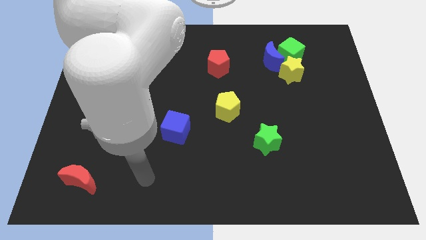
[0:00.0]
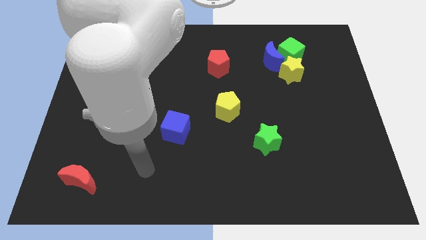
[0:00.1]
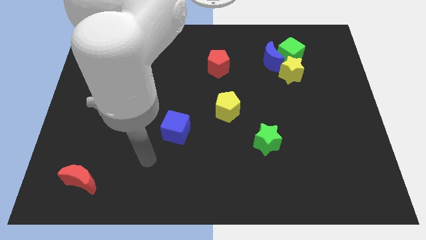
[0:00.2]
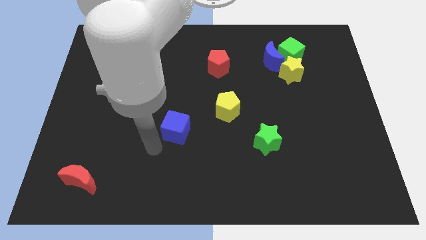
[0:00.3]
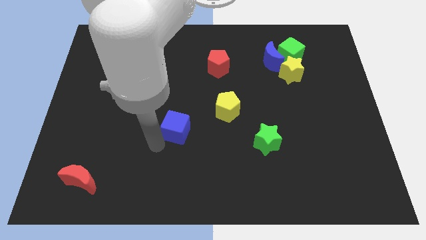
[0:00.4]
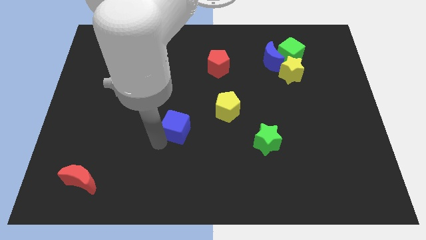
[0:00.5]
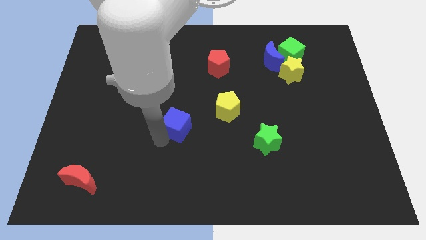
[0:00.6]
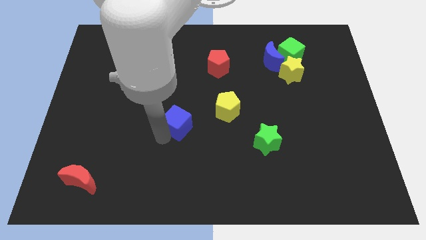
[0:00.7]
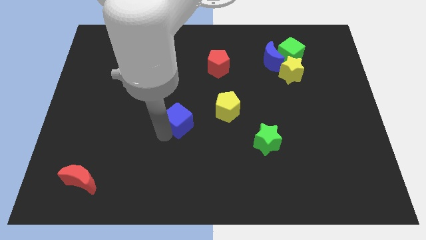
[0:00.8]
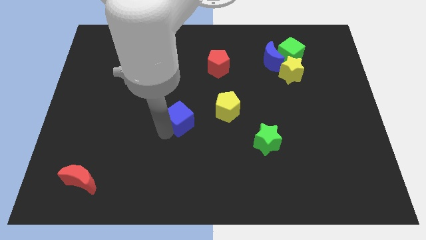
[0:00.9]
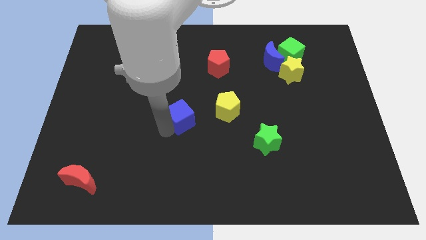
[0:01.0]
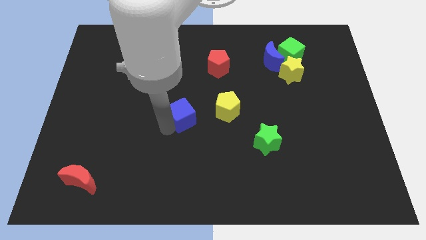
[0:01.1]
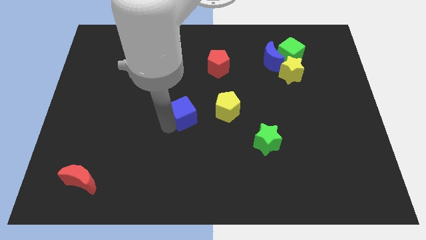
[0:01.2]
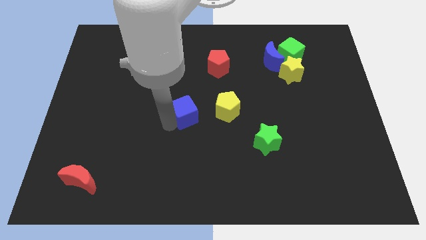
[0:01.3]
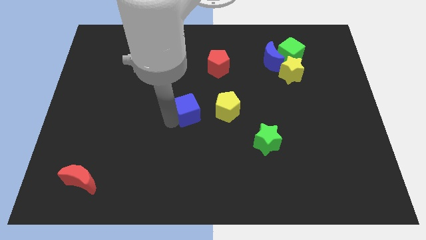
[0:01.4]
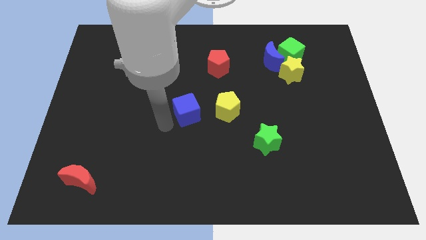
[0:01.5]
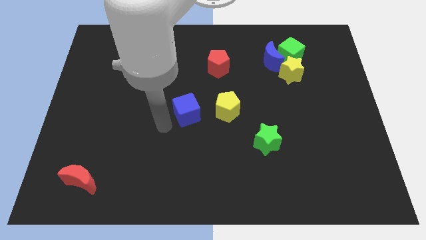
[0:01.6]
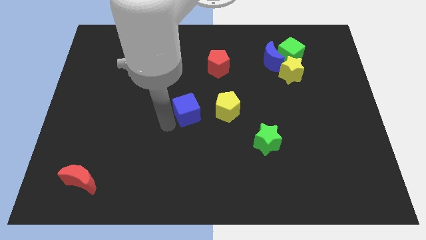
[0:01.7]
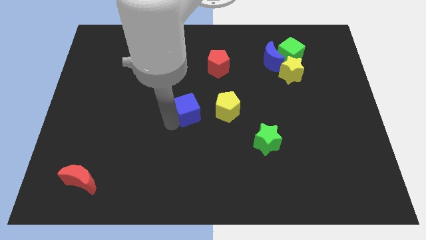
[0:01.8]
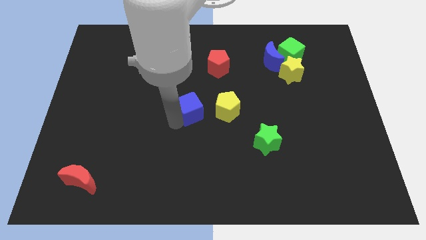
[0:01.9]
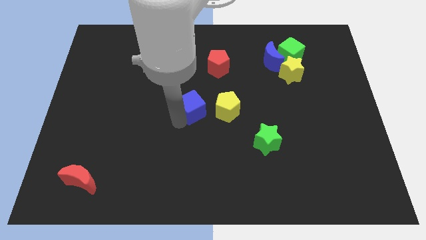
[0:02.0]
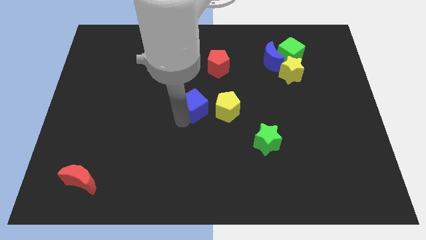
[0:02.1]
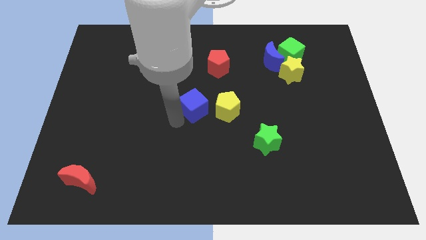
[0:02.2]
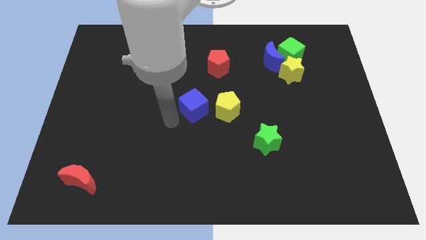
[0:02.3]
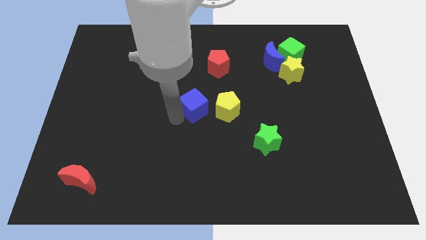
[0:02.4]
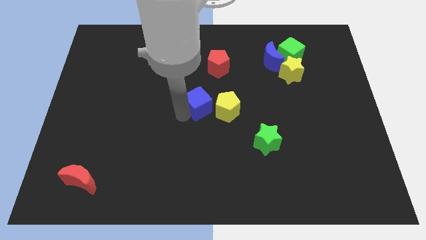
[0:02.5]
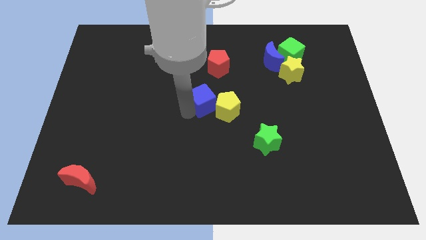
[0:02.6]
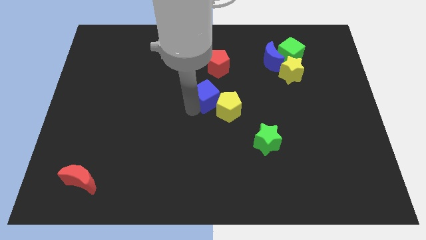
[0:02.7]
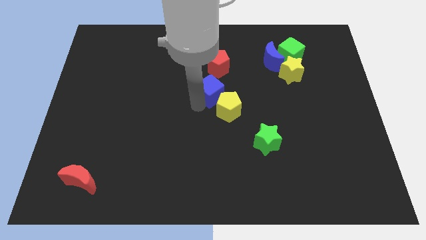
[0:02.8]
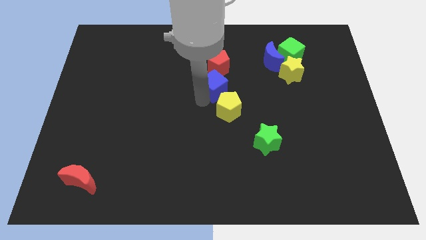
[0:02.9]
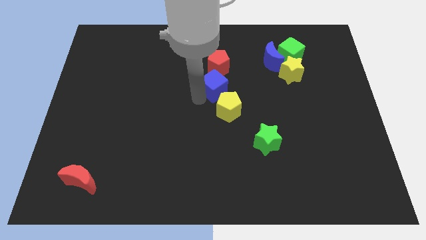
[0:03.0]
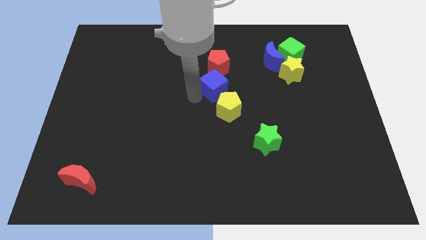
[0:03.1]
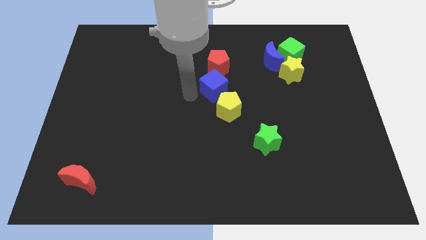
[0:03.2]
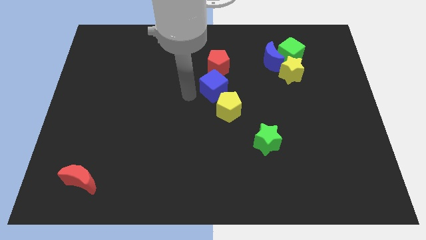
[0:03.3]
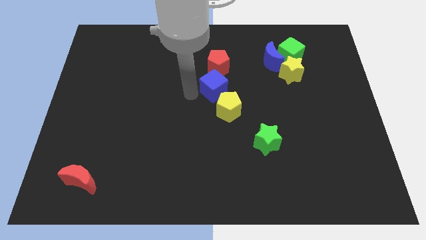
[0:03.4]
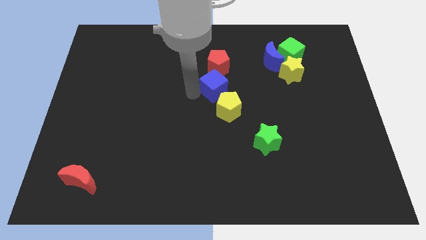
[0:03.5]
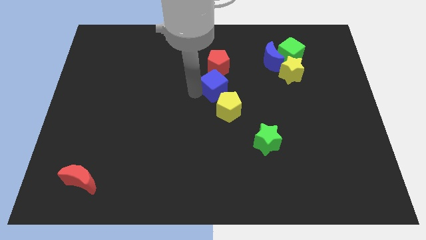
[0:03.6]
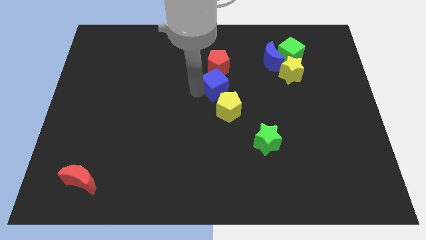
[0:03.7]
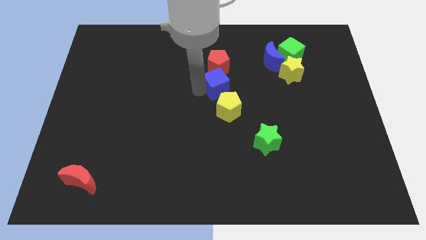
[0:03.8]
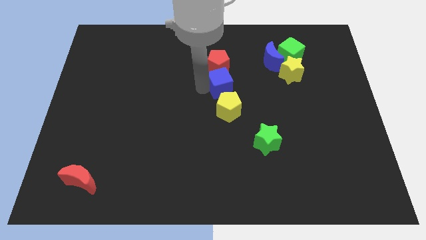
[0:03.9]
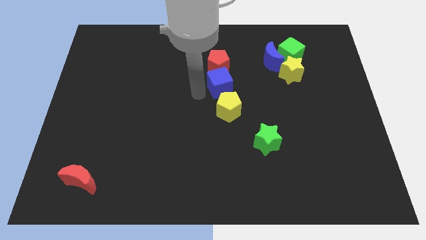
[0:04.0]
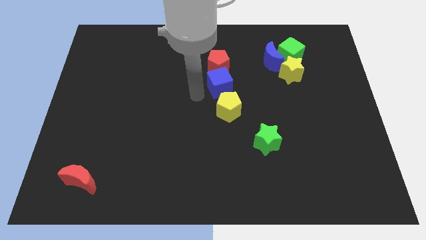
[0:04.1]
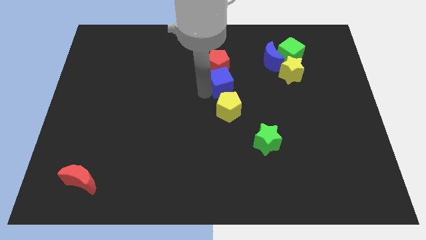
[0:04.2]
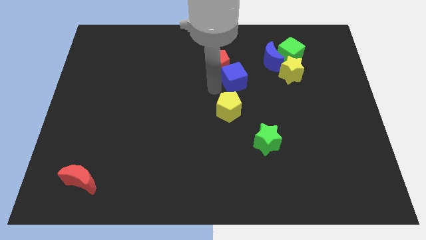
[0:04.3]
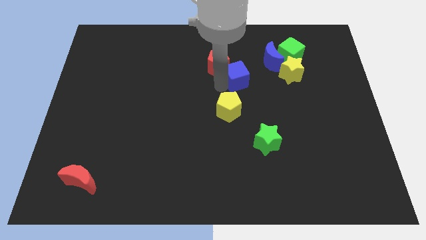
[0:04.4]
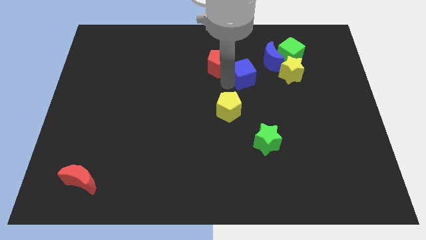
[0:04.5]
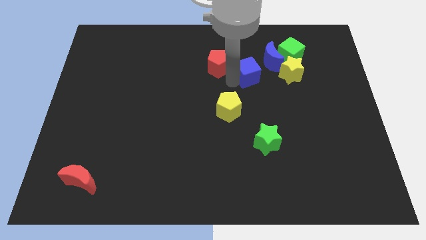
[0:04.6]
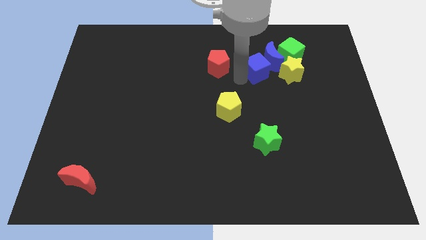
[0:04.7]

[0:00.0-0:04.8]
move the blue cube next to the blue moon

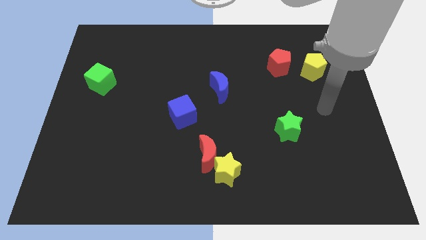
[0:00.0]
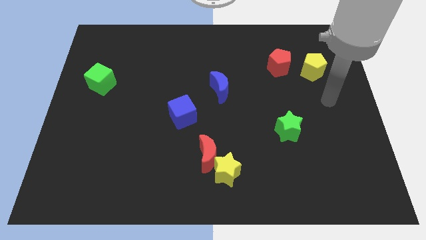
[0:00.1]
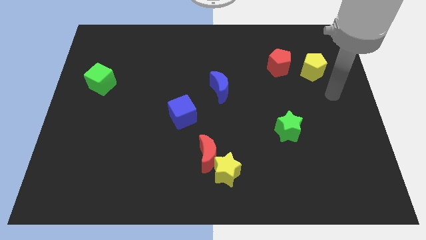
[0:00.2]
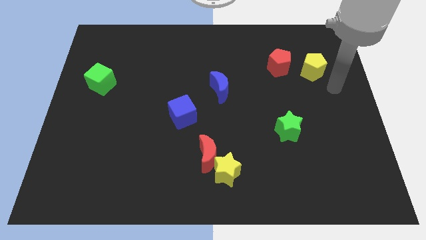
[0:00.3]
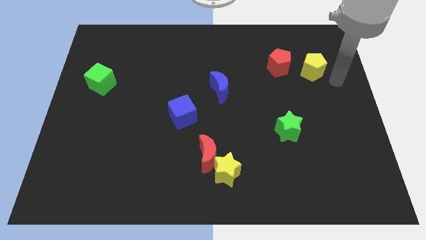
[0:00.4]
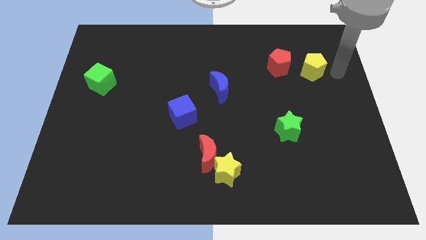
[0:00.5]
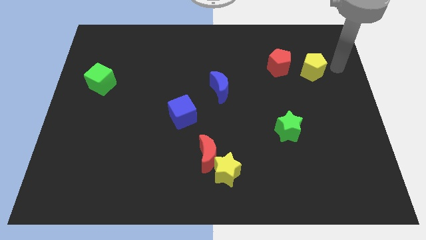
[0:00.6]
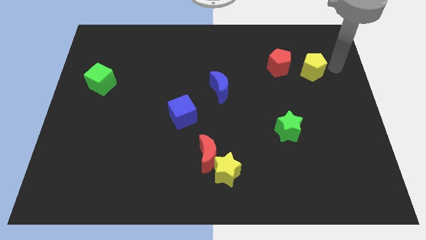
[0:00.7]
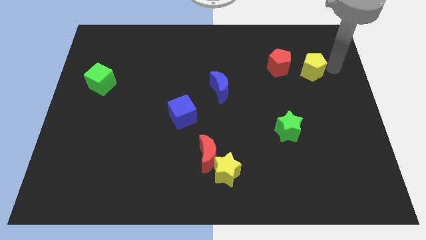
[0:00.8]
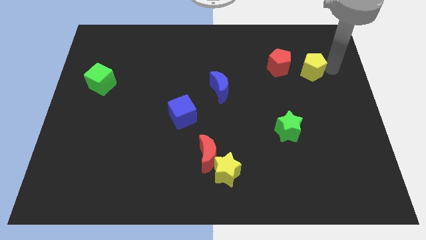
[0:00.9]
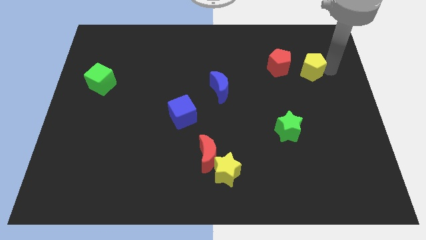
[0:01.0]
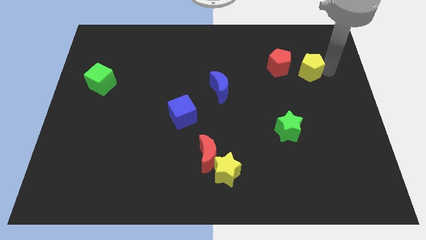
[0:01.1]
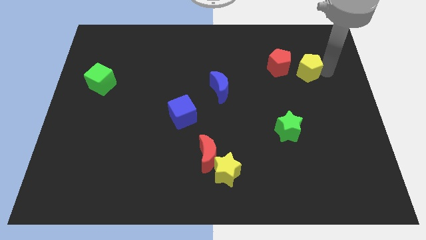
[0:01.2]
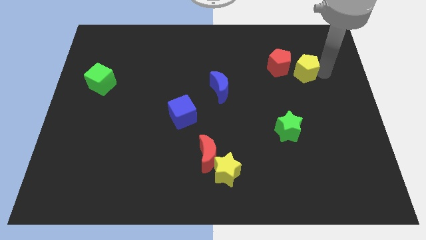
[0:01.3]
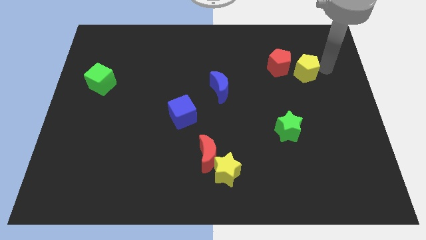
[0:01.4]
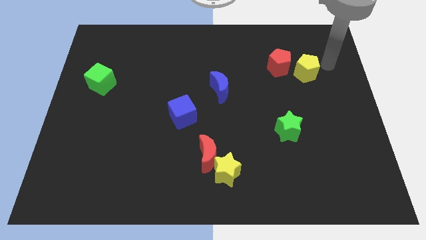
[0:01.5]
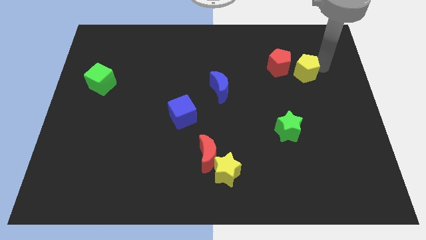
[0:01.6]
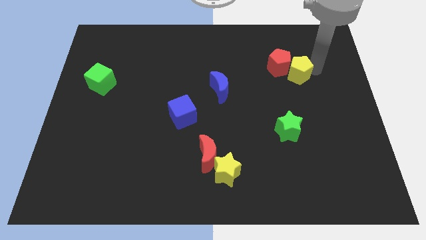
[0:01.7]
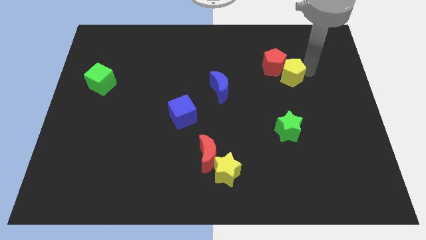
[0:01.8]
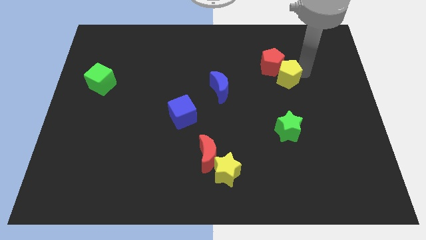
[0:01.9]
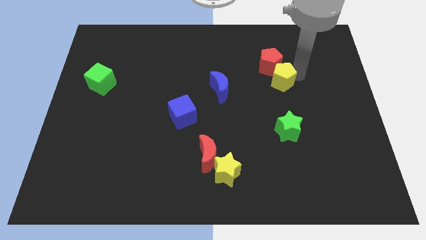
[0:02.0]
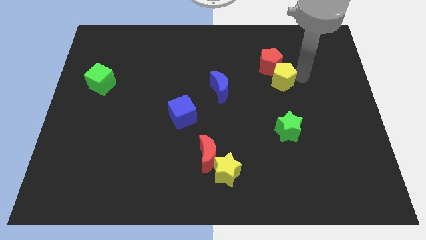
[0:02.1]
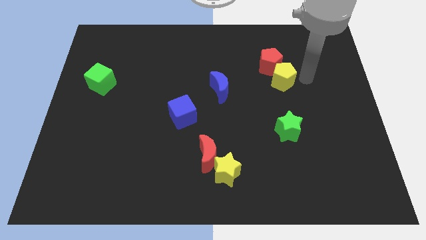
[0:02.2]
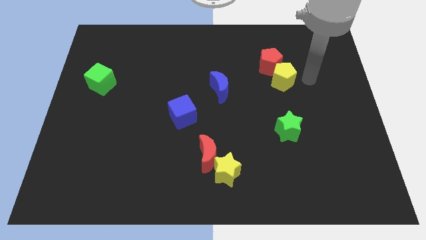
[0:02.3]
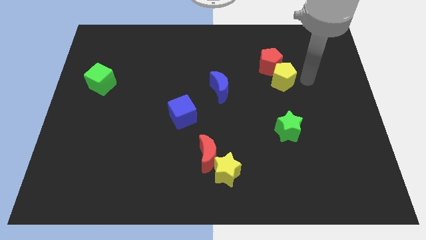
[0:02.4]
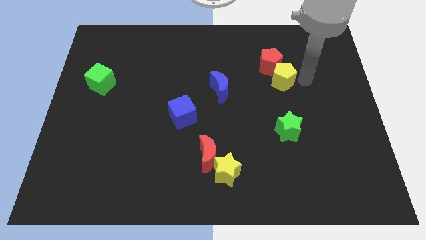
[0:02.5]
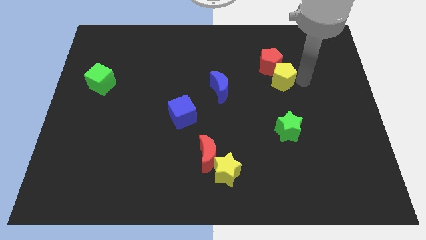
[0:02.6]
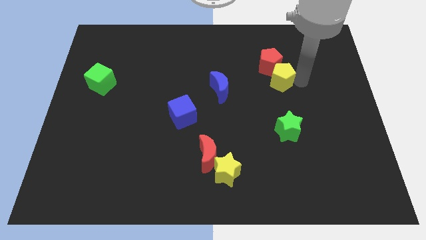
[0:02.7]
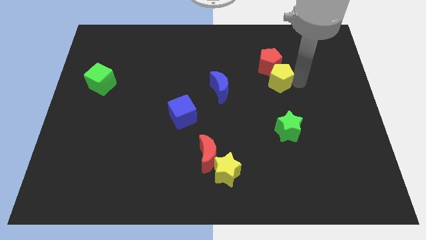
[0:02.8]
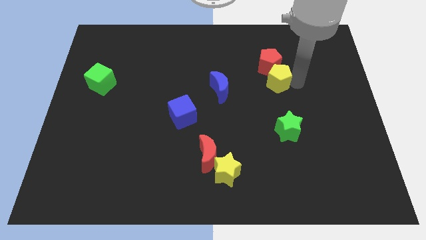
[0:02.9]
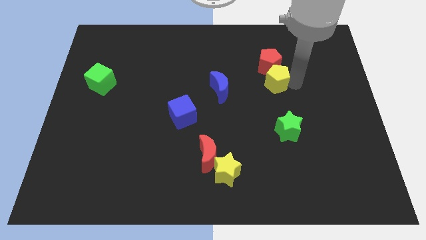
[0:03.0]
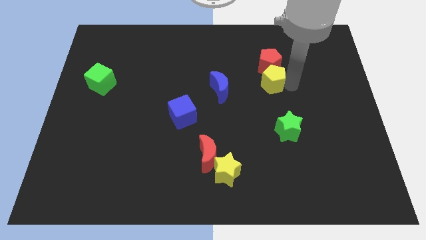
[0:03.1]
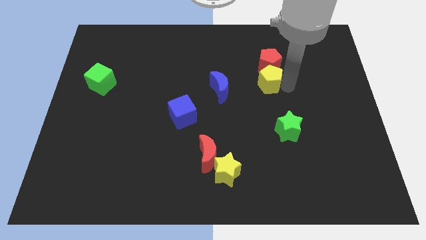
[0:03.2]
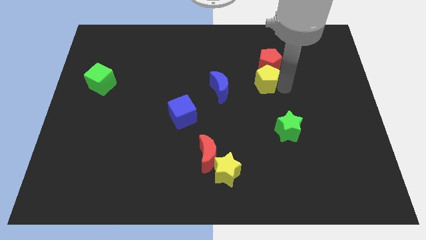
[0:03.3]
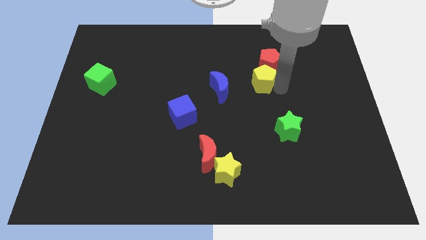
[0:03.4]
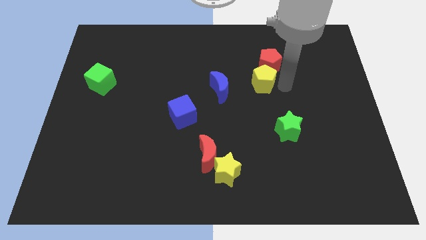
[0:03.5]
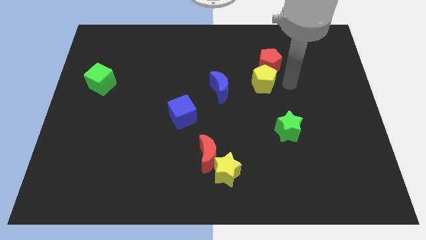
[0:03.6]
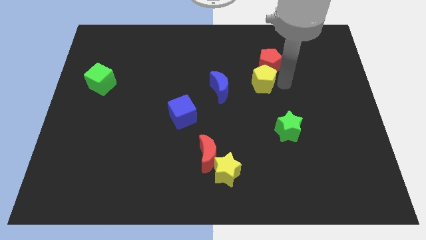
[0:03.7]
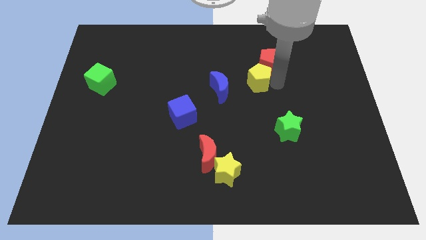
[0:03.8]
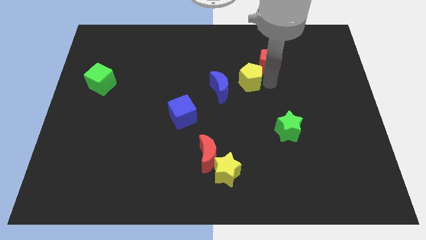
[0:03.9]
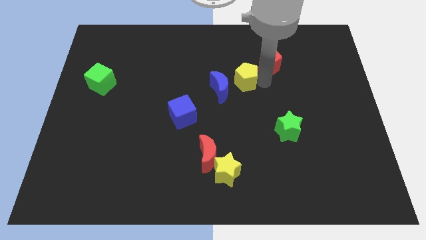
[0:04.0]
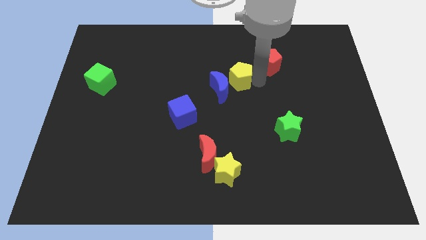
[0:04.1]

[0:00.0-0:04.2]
move the yellow pentagon next to the blue moon
